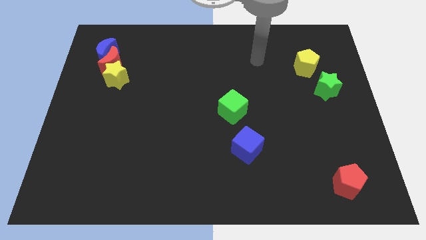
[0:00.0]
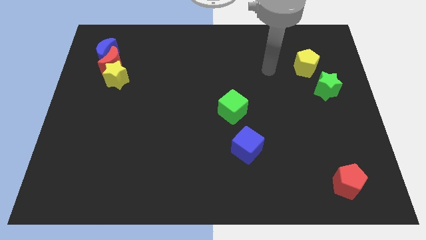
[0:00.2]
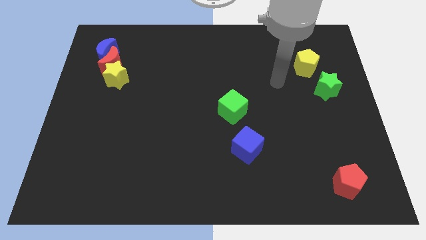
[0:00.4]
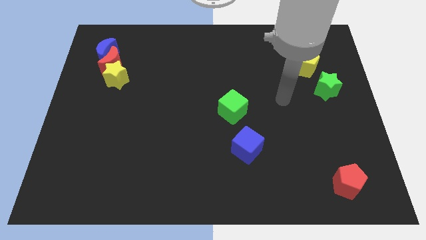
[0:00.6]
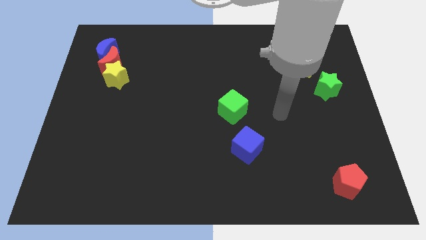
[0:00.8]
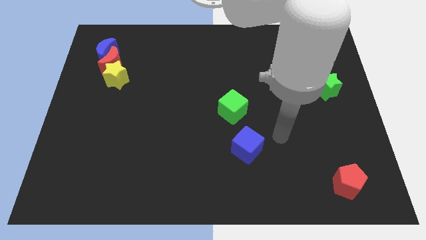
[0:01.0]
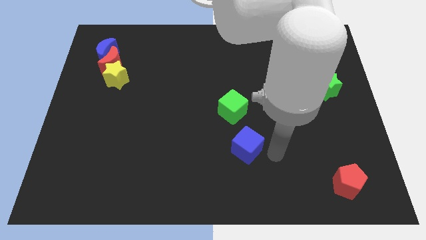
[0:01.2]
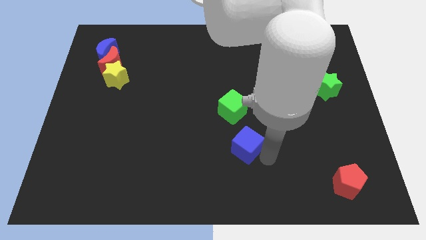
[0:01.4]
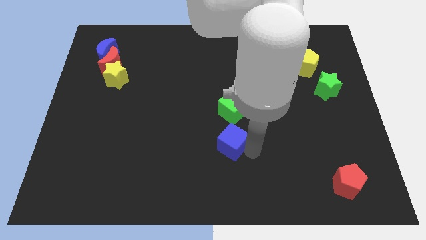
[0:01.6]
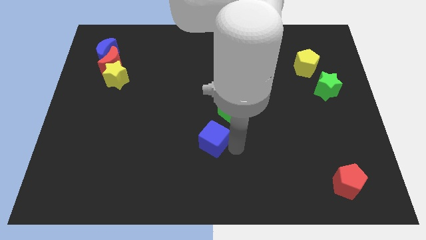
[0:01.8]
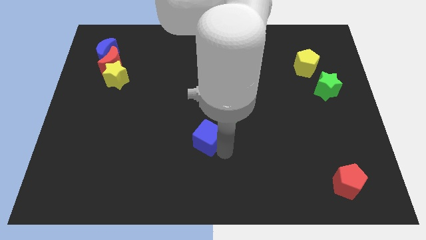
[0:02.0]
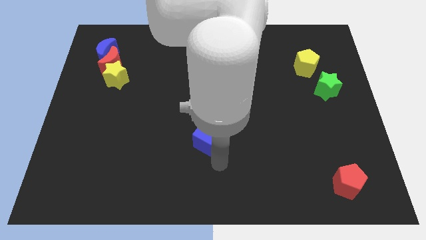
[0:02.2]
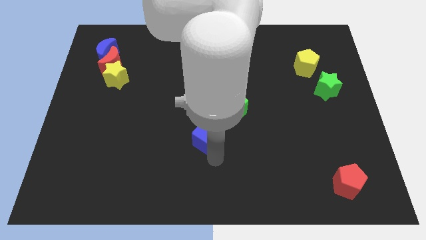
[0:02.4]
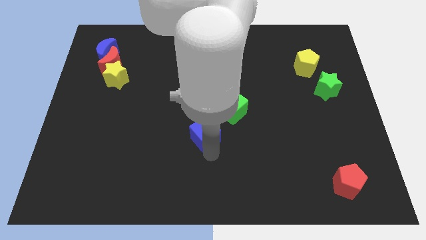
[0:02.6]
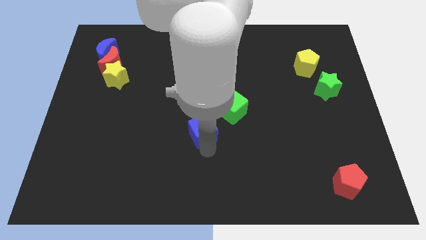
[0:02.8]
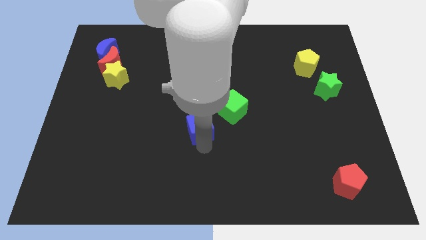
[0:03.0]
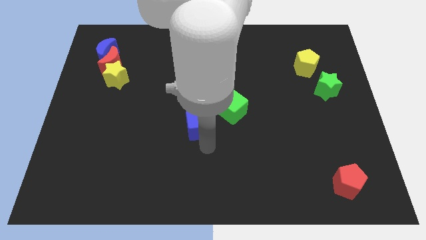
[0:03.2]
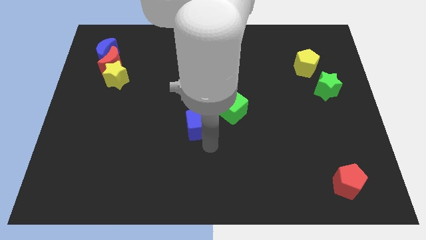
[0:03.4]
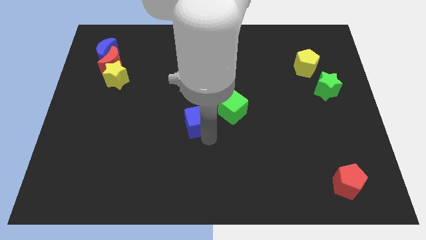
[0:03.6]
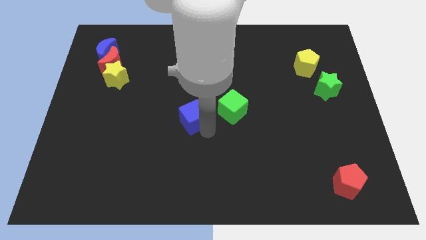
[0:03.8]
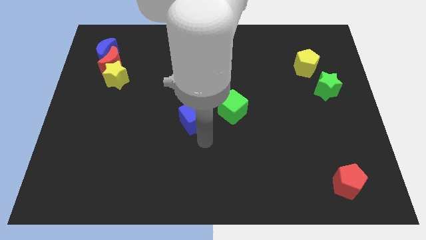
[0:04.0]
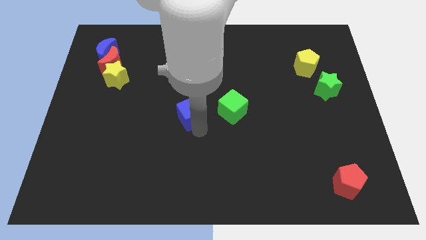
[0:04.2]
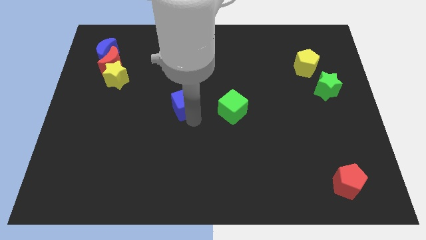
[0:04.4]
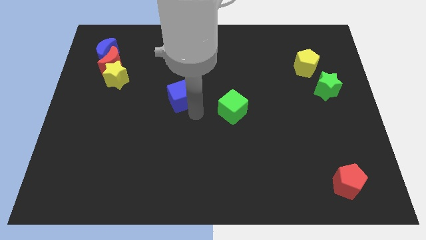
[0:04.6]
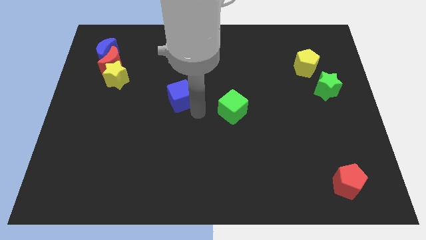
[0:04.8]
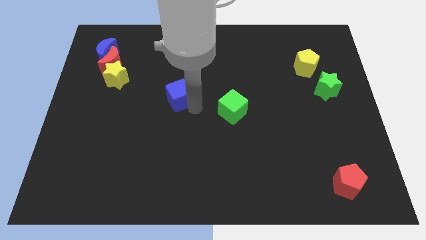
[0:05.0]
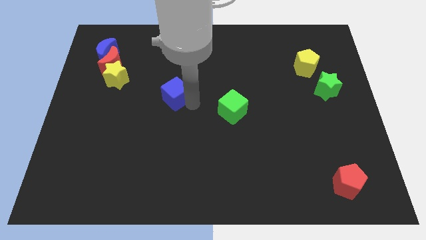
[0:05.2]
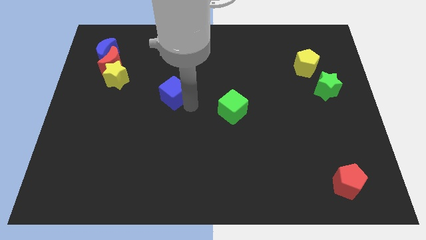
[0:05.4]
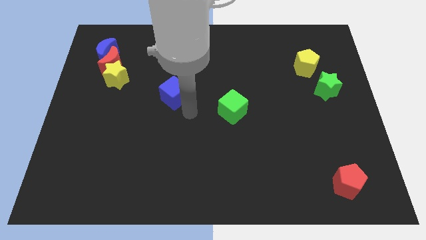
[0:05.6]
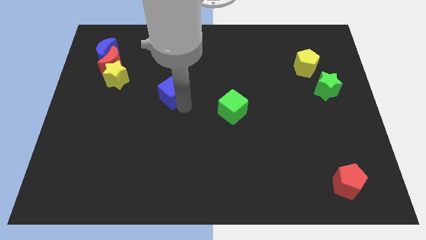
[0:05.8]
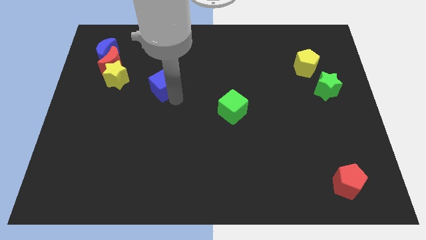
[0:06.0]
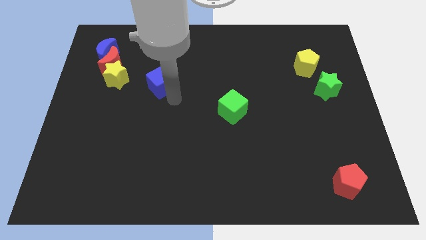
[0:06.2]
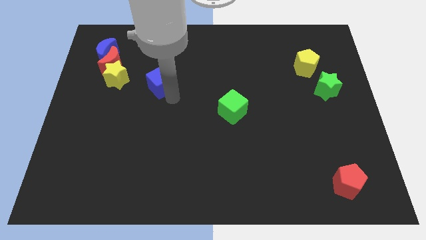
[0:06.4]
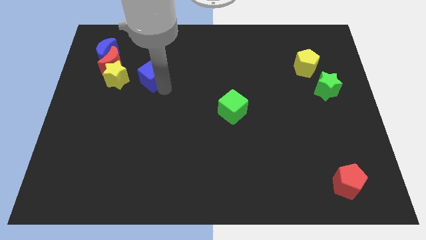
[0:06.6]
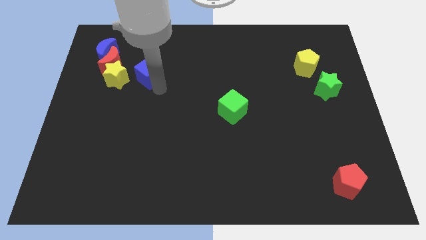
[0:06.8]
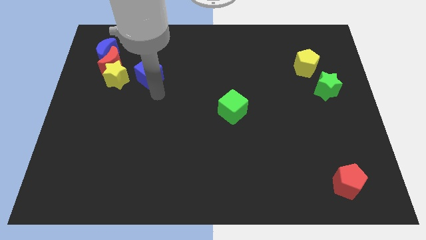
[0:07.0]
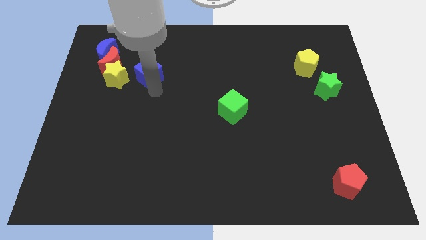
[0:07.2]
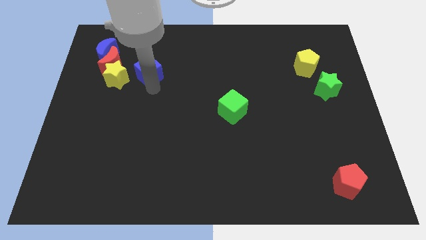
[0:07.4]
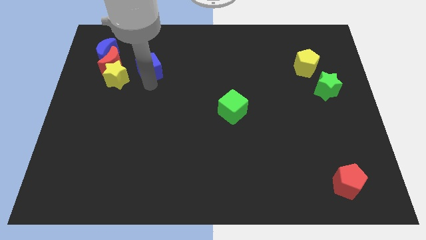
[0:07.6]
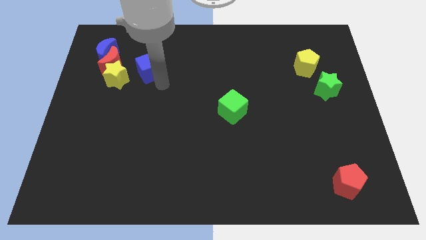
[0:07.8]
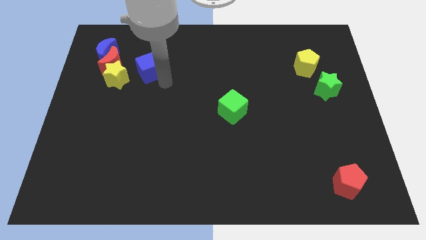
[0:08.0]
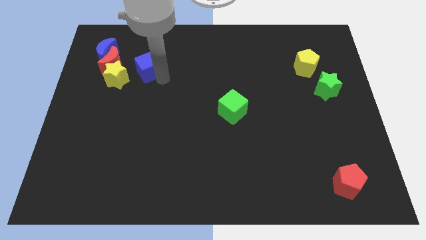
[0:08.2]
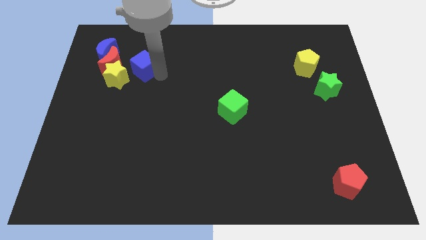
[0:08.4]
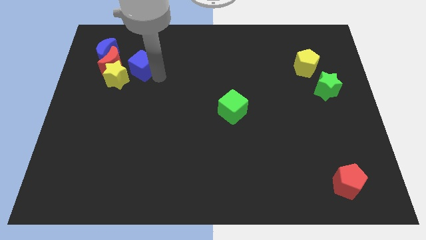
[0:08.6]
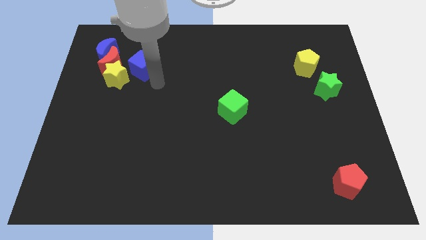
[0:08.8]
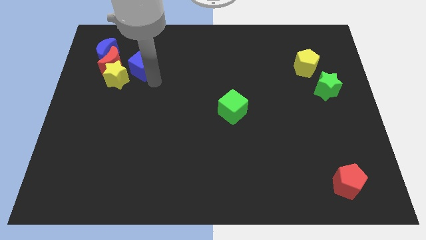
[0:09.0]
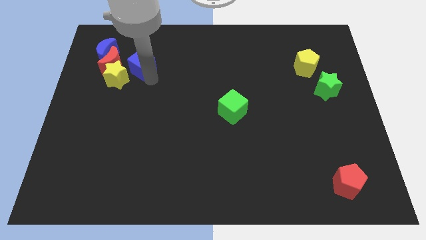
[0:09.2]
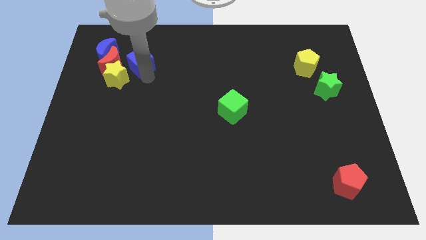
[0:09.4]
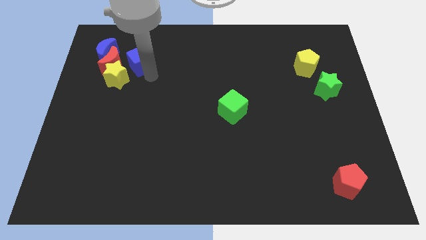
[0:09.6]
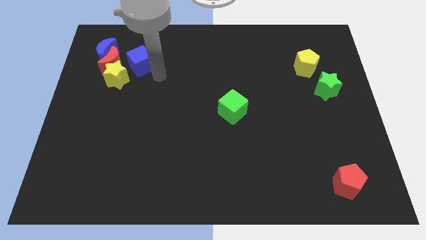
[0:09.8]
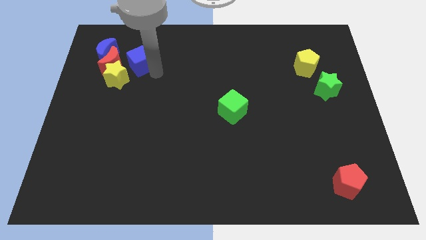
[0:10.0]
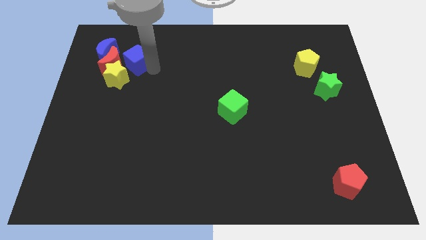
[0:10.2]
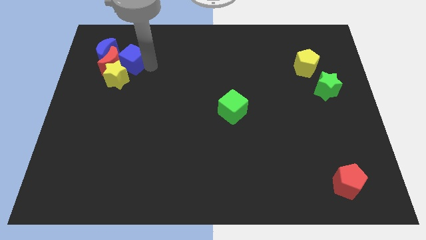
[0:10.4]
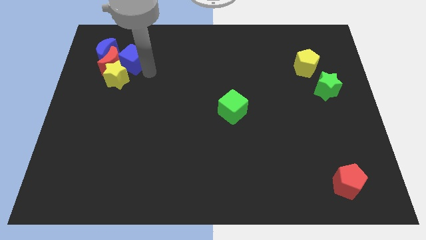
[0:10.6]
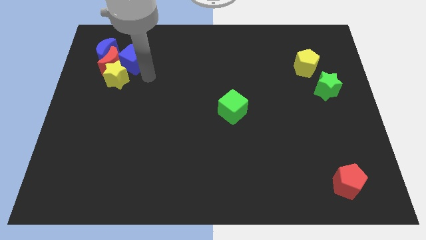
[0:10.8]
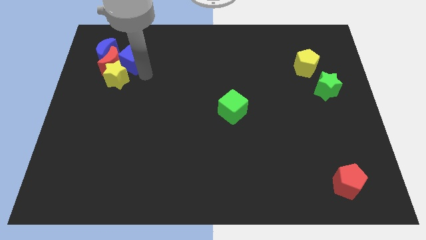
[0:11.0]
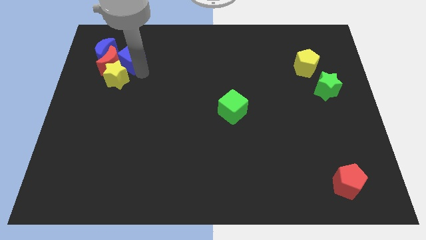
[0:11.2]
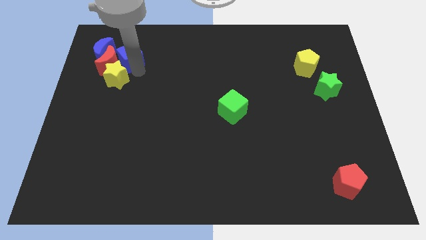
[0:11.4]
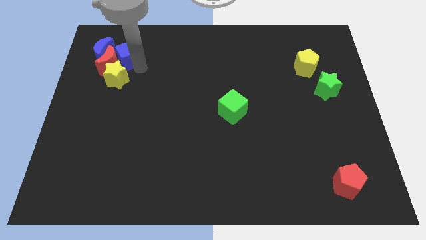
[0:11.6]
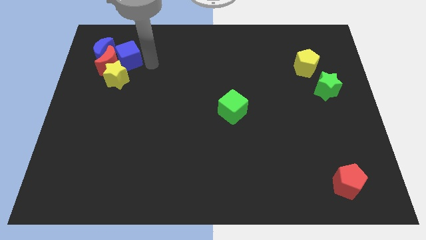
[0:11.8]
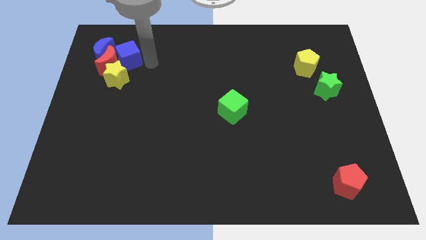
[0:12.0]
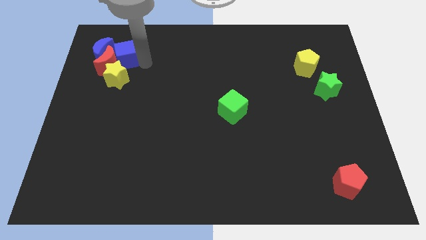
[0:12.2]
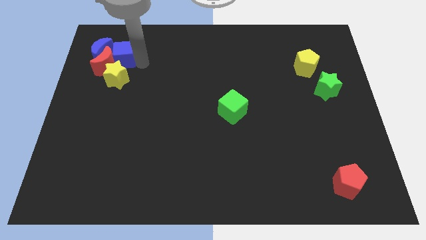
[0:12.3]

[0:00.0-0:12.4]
move the blue cube to the blue moon

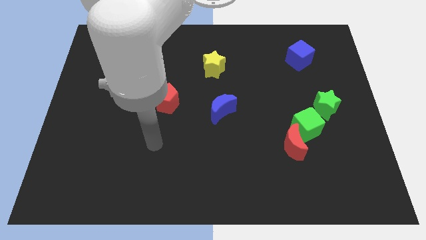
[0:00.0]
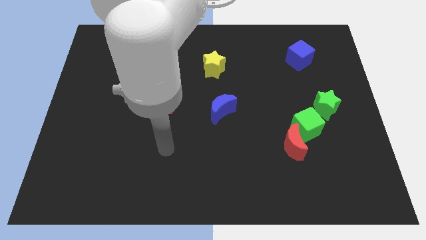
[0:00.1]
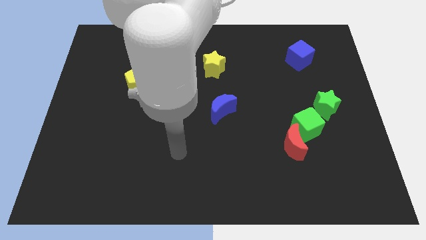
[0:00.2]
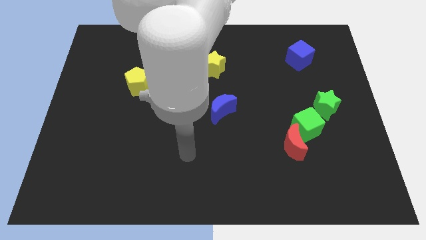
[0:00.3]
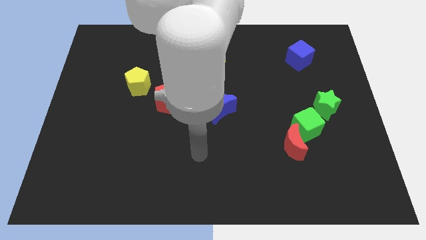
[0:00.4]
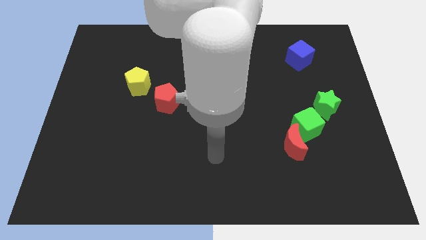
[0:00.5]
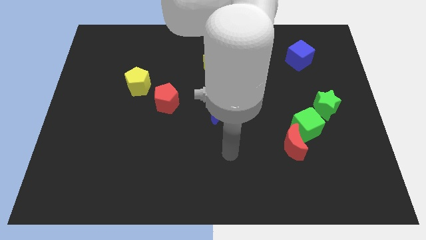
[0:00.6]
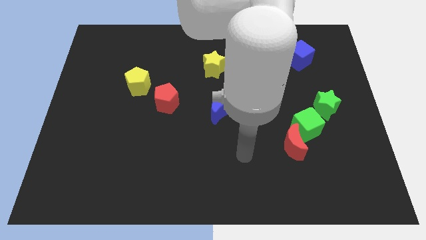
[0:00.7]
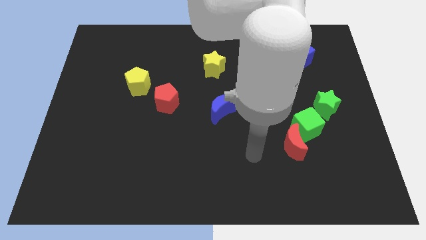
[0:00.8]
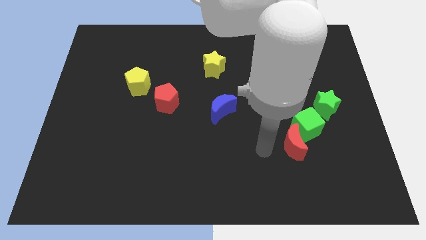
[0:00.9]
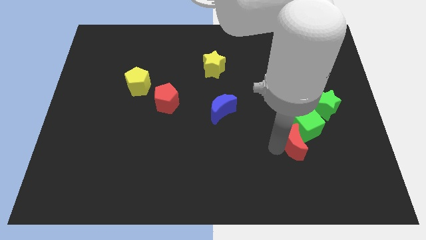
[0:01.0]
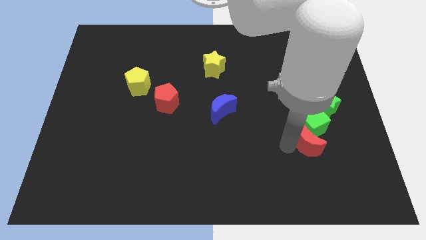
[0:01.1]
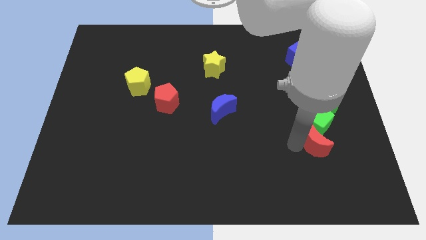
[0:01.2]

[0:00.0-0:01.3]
slide the green cube to the green star
